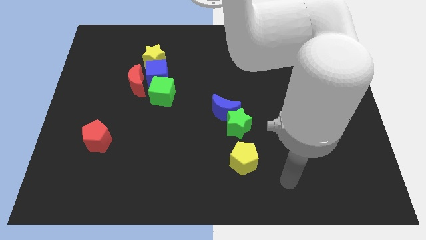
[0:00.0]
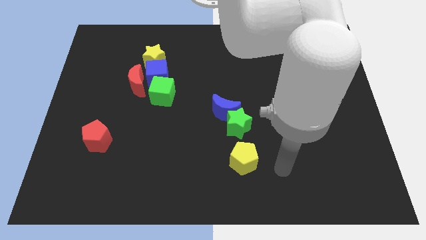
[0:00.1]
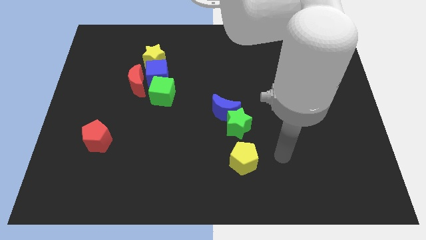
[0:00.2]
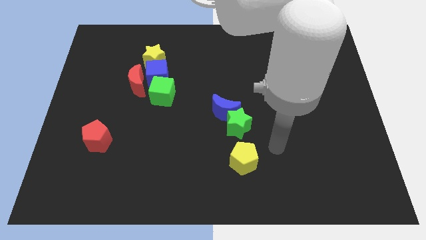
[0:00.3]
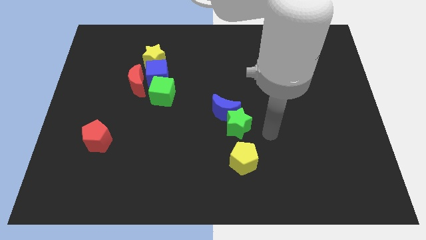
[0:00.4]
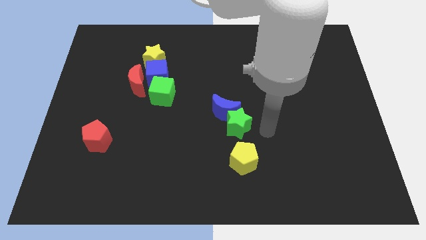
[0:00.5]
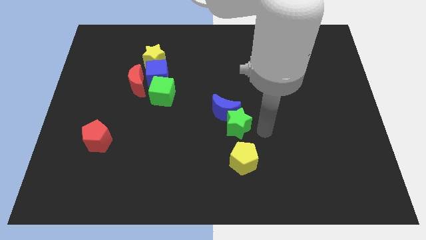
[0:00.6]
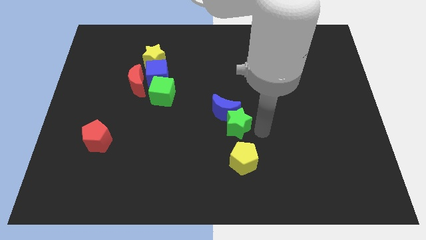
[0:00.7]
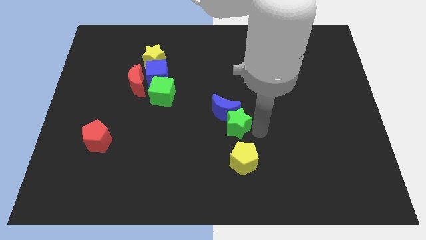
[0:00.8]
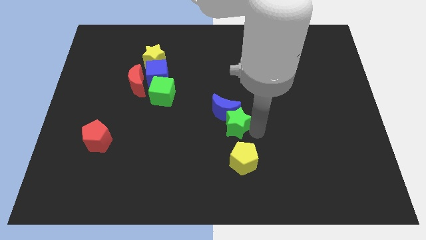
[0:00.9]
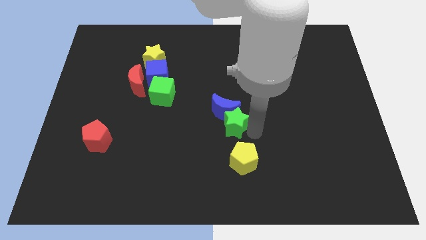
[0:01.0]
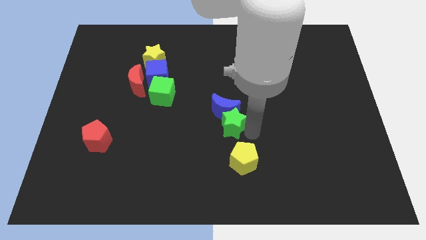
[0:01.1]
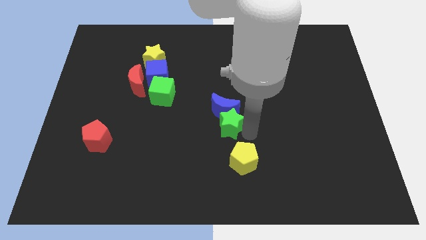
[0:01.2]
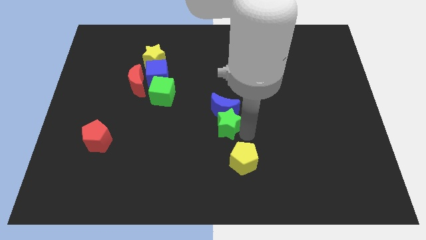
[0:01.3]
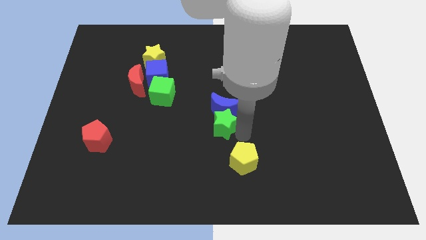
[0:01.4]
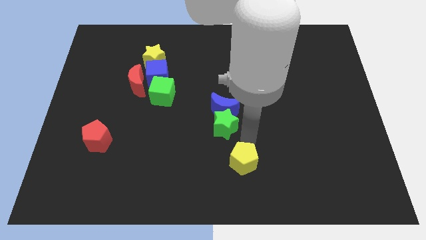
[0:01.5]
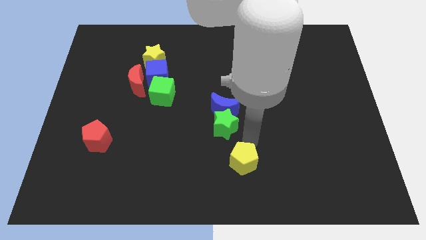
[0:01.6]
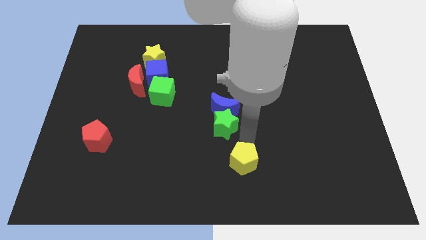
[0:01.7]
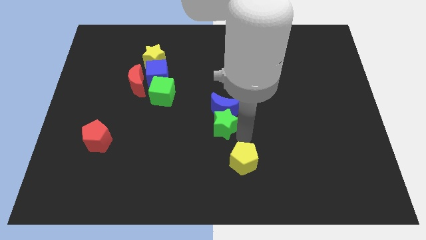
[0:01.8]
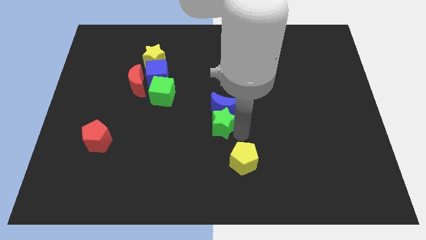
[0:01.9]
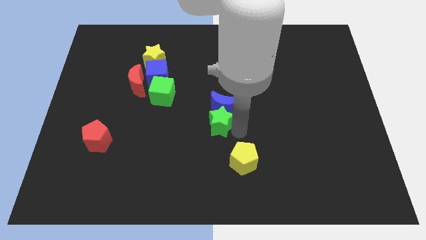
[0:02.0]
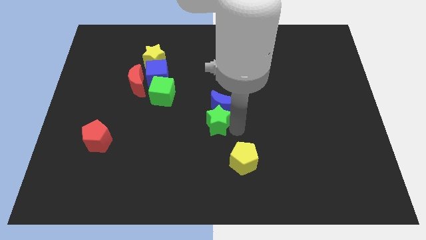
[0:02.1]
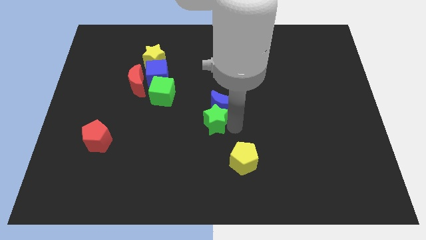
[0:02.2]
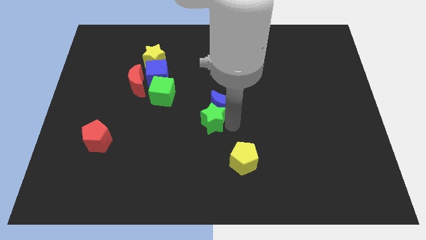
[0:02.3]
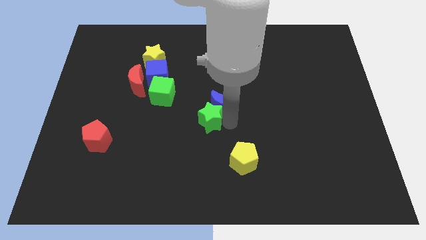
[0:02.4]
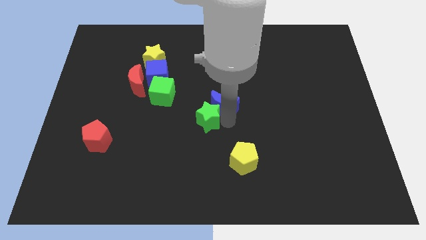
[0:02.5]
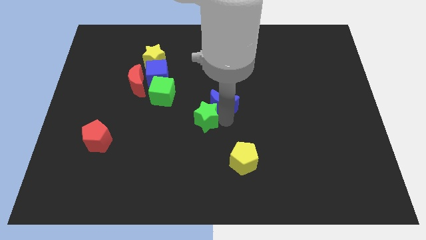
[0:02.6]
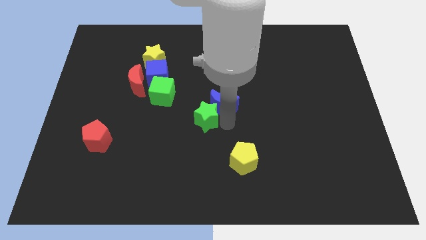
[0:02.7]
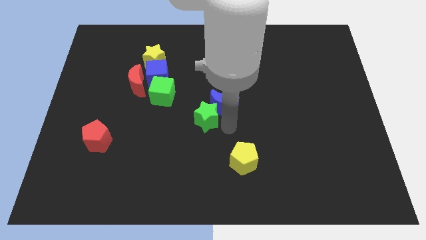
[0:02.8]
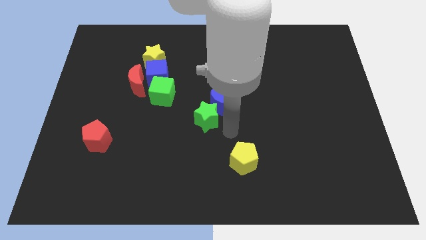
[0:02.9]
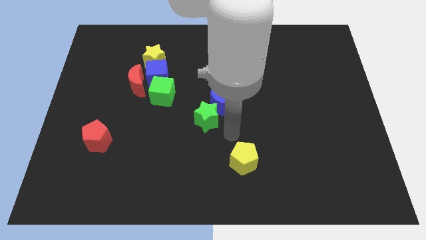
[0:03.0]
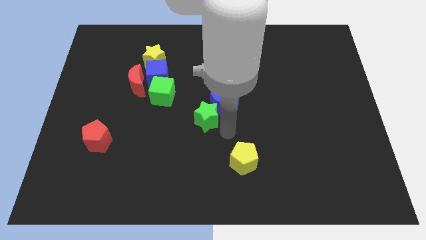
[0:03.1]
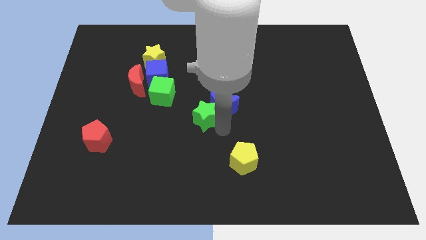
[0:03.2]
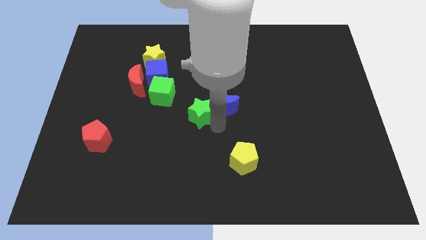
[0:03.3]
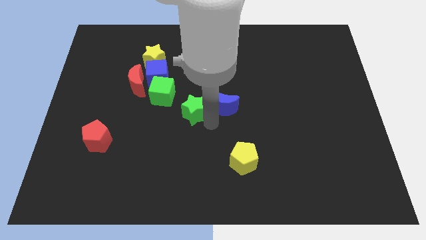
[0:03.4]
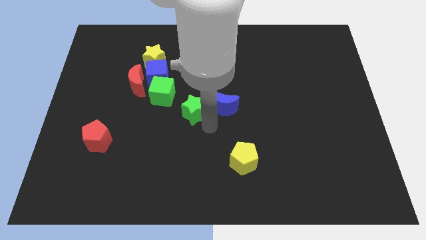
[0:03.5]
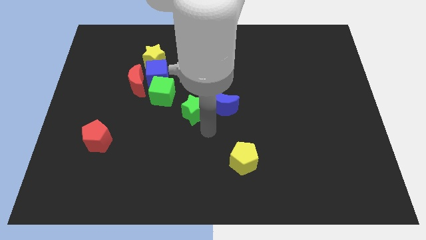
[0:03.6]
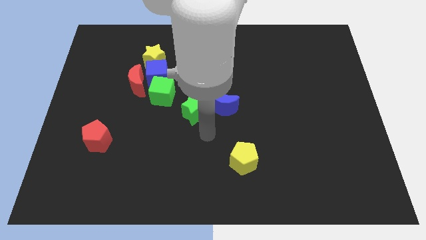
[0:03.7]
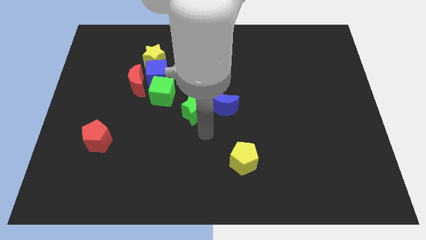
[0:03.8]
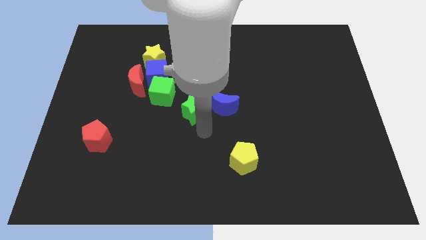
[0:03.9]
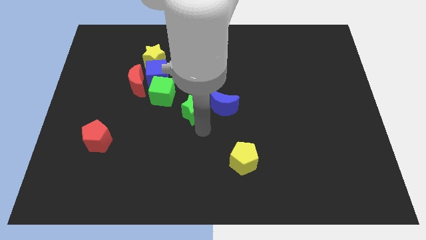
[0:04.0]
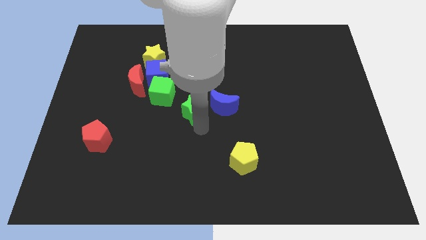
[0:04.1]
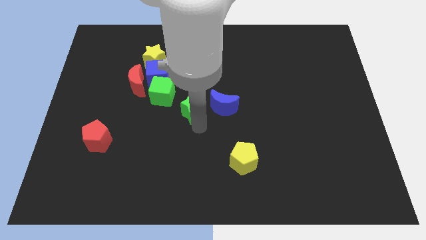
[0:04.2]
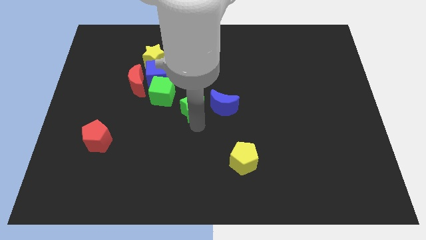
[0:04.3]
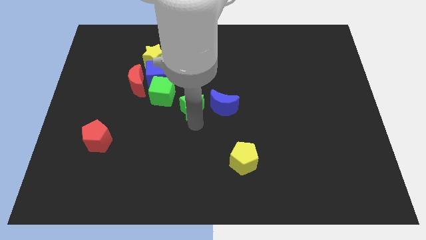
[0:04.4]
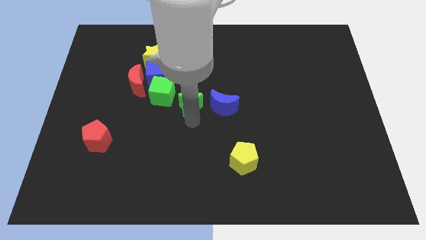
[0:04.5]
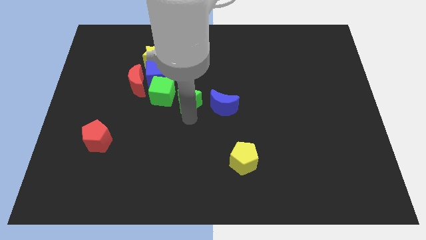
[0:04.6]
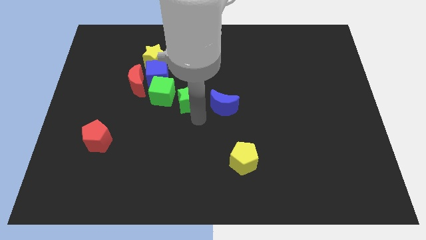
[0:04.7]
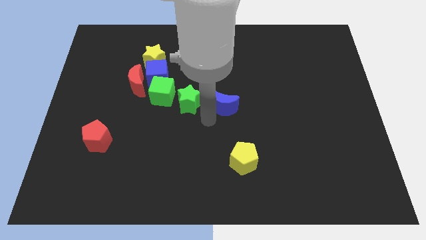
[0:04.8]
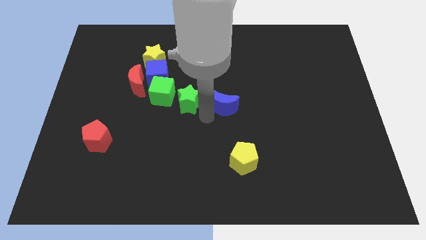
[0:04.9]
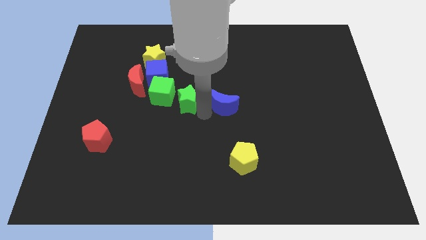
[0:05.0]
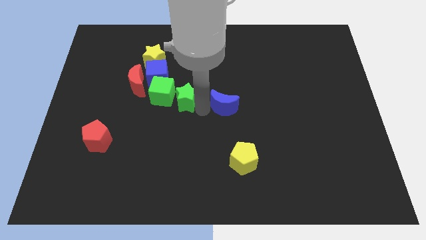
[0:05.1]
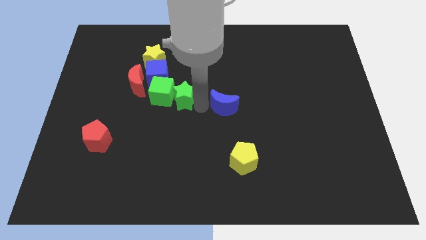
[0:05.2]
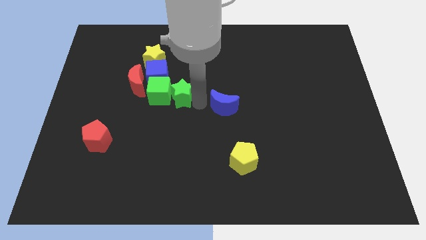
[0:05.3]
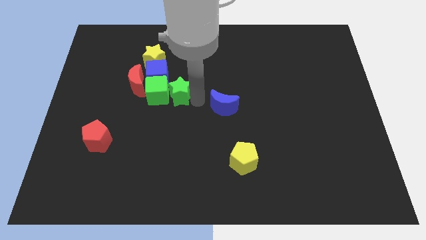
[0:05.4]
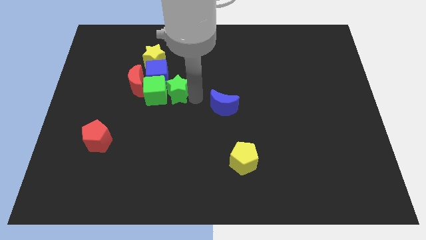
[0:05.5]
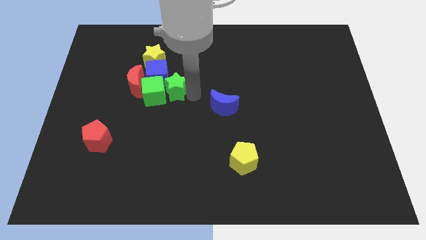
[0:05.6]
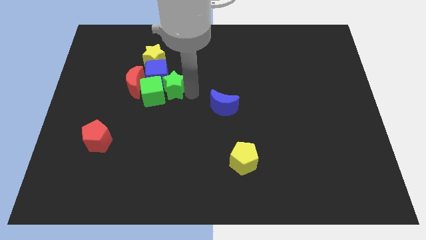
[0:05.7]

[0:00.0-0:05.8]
move the green star next to the blue cube

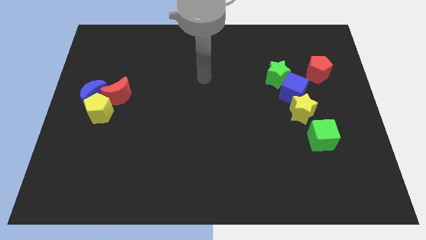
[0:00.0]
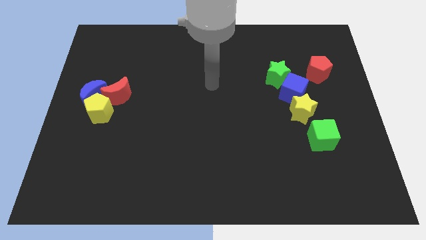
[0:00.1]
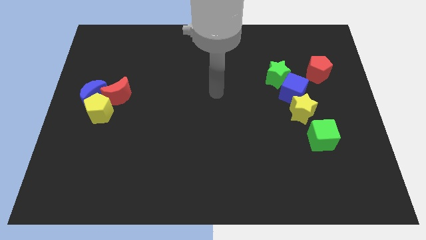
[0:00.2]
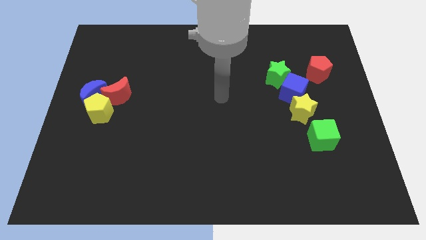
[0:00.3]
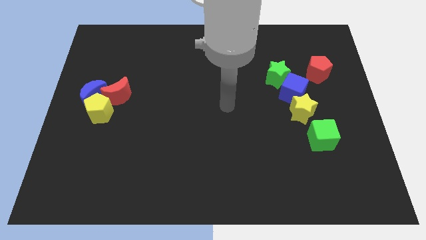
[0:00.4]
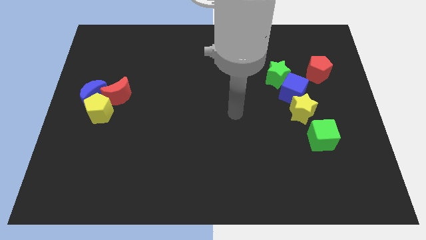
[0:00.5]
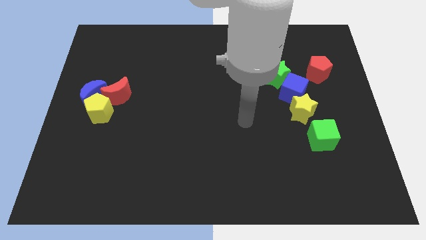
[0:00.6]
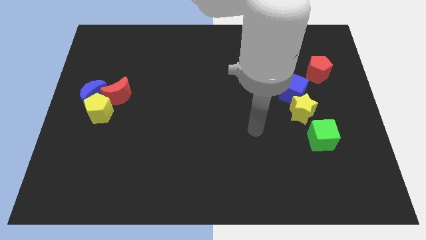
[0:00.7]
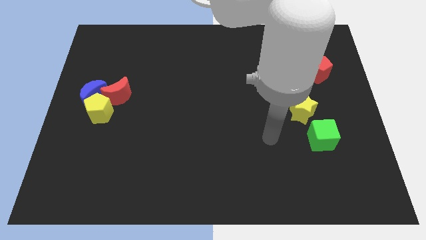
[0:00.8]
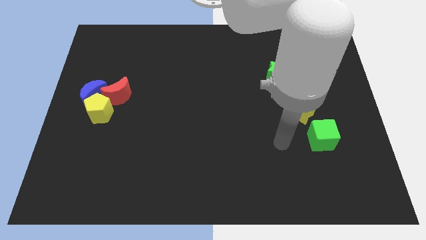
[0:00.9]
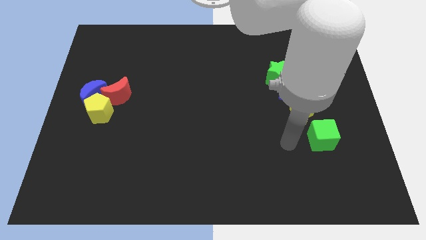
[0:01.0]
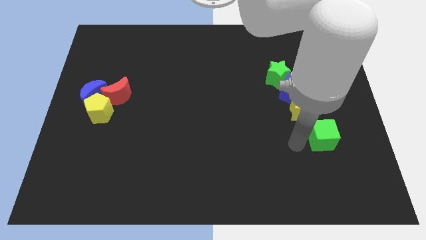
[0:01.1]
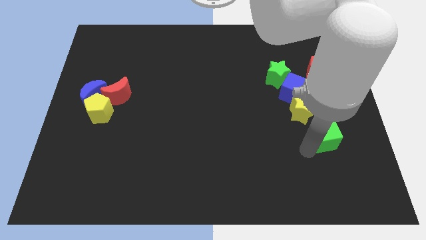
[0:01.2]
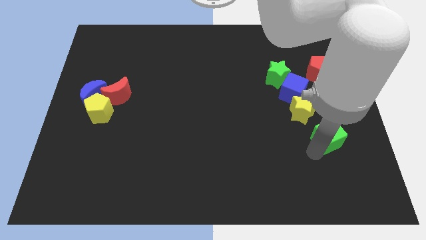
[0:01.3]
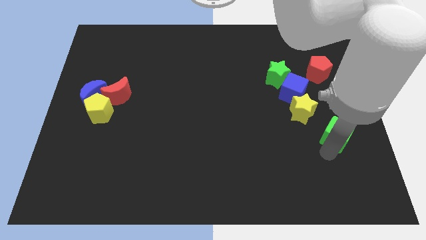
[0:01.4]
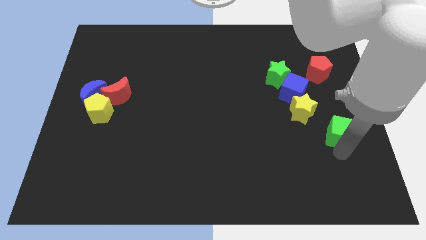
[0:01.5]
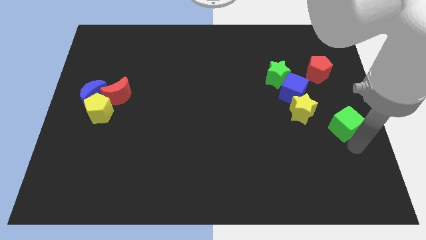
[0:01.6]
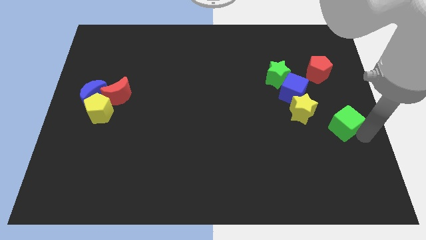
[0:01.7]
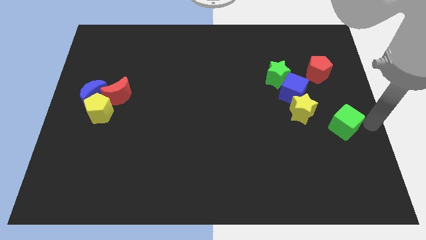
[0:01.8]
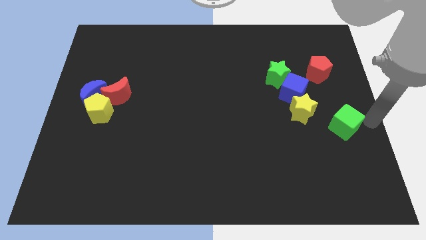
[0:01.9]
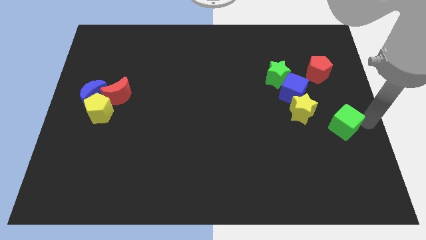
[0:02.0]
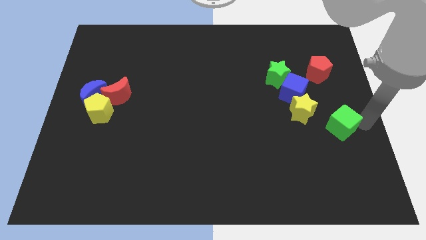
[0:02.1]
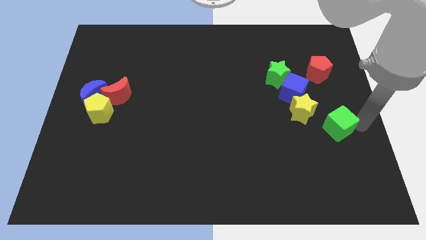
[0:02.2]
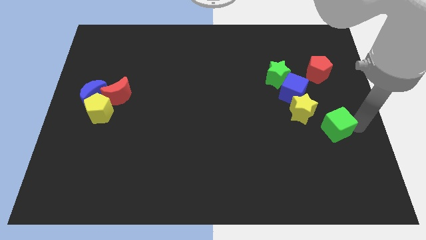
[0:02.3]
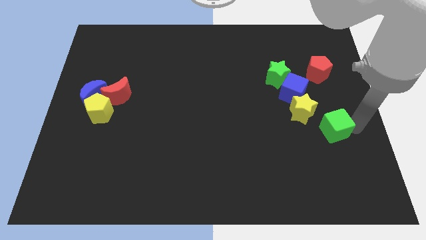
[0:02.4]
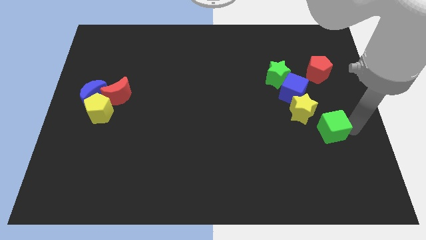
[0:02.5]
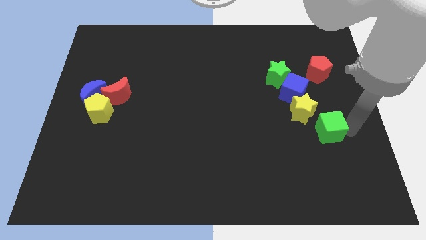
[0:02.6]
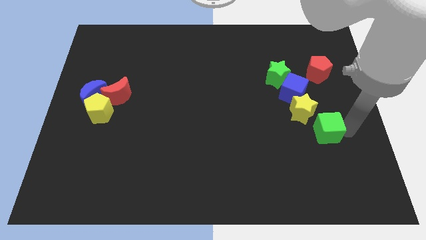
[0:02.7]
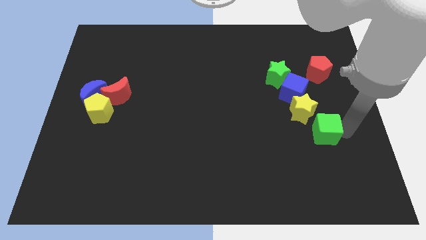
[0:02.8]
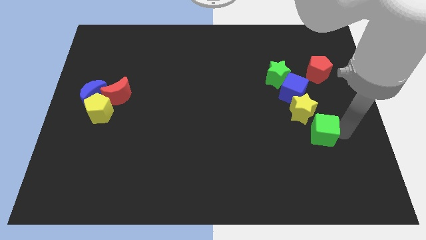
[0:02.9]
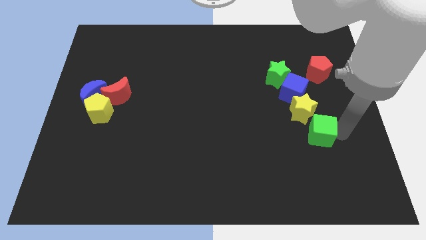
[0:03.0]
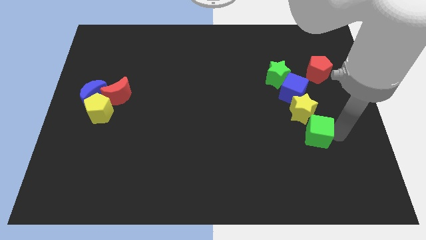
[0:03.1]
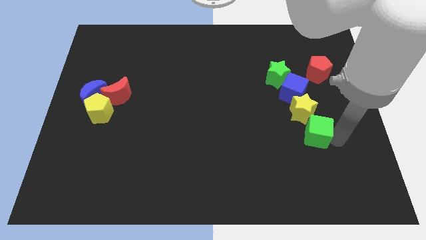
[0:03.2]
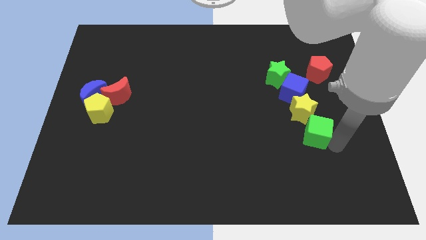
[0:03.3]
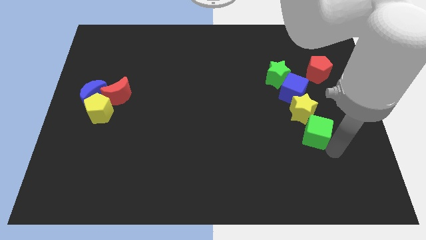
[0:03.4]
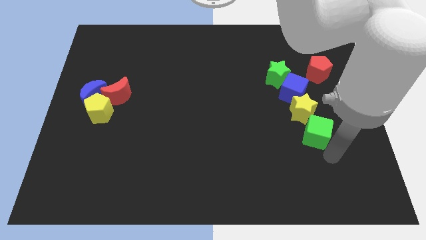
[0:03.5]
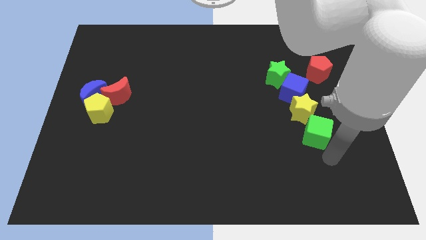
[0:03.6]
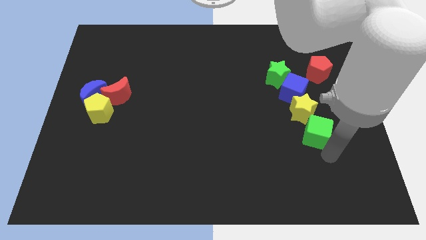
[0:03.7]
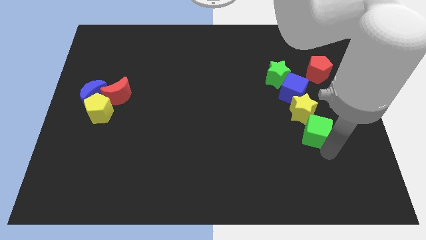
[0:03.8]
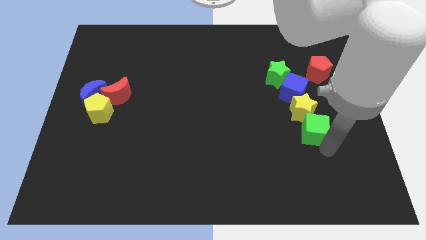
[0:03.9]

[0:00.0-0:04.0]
push the green cube to the yellow star
